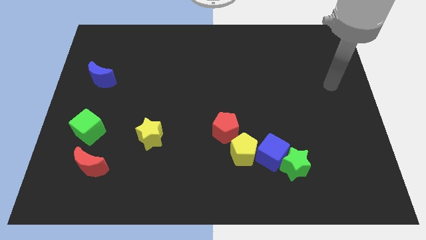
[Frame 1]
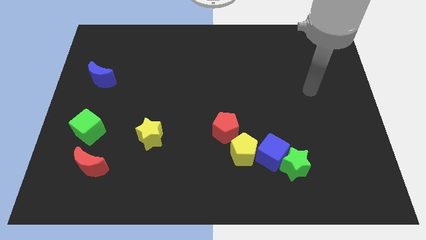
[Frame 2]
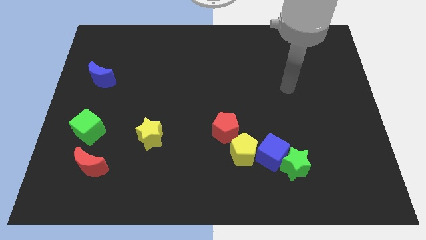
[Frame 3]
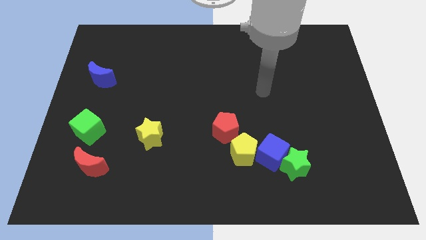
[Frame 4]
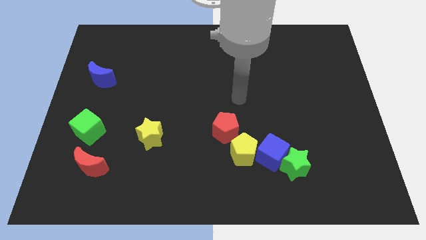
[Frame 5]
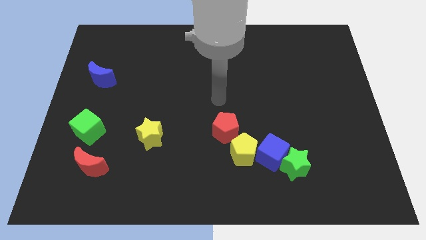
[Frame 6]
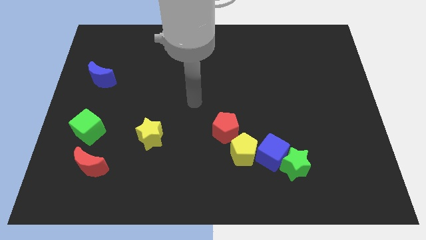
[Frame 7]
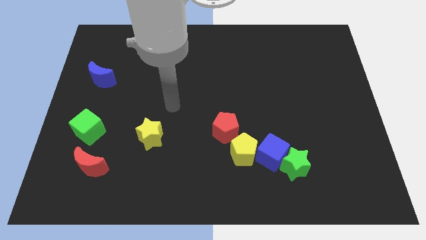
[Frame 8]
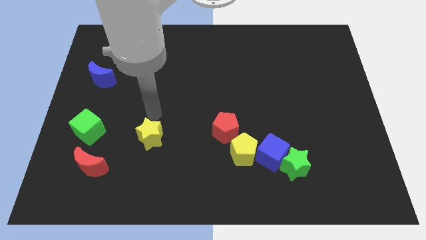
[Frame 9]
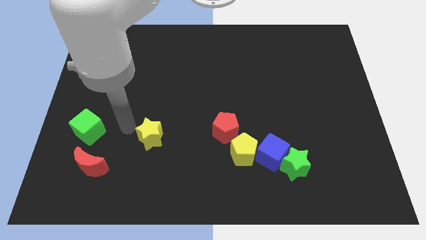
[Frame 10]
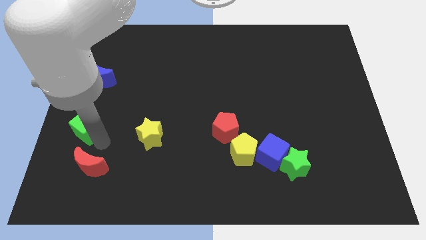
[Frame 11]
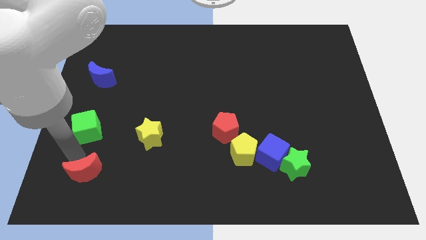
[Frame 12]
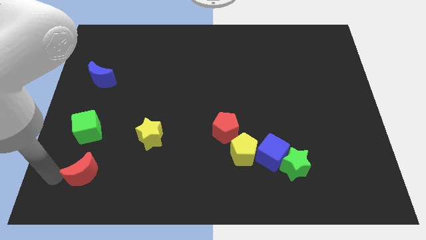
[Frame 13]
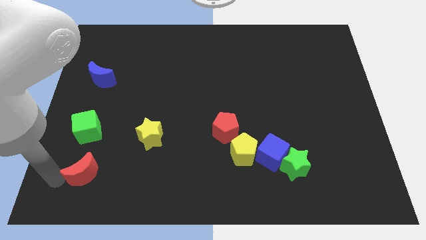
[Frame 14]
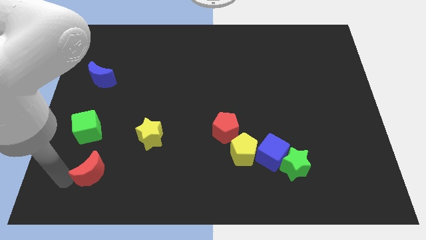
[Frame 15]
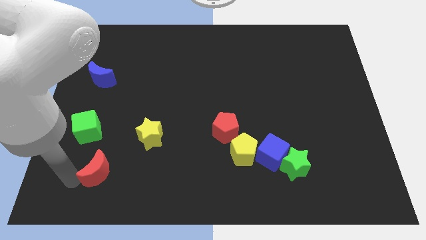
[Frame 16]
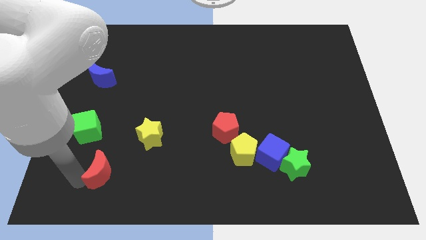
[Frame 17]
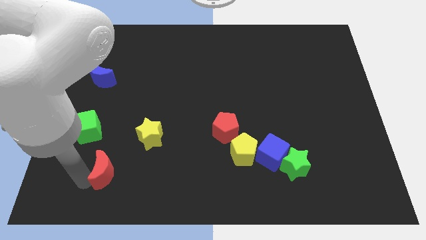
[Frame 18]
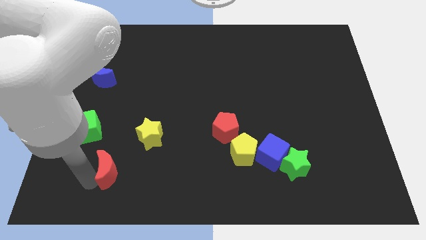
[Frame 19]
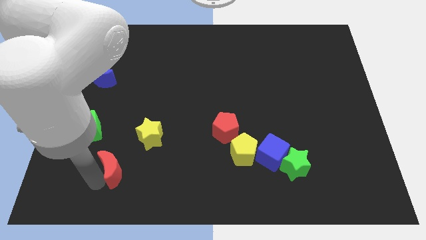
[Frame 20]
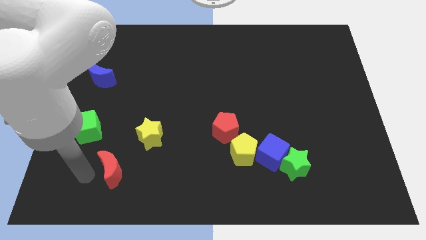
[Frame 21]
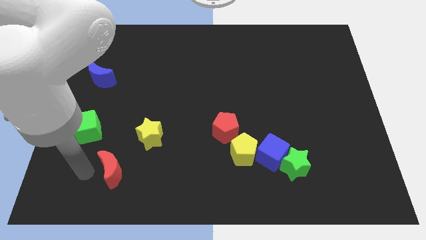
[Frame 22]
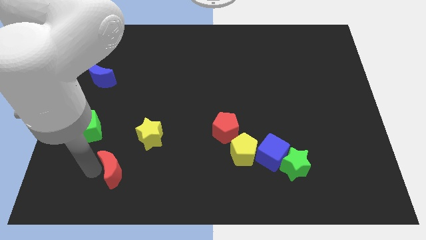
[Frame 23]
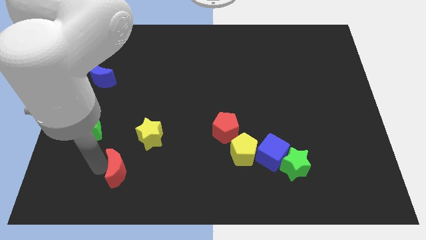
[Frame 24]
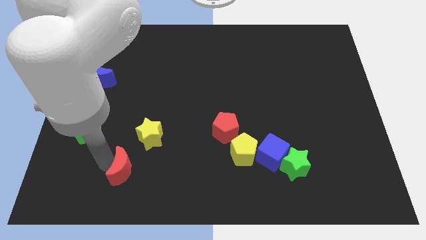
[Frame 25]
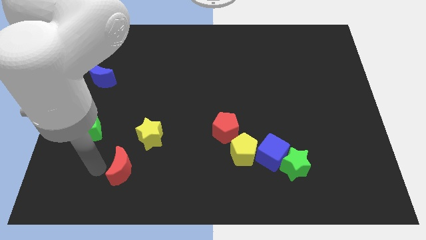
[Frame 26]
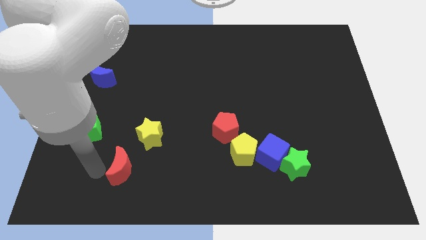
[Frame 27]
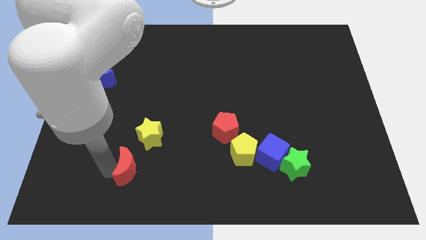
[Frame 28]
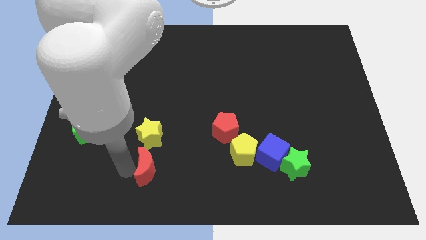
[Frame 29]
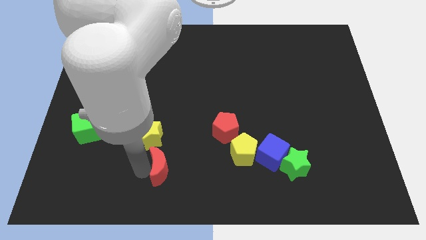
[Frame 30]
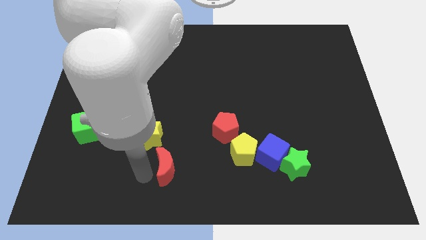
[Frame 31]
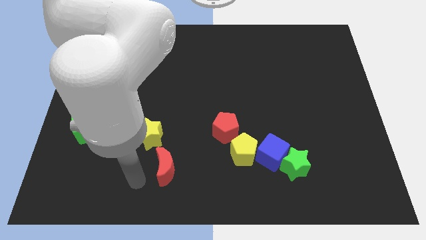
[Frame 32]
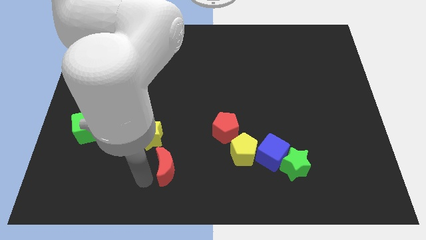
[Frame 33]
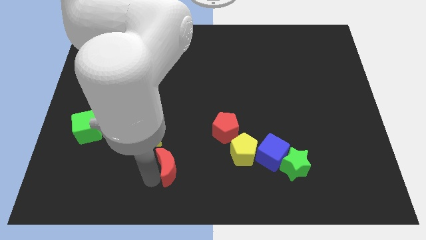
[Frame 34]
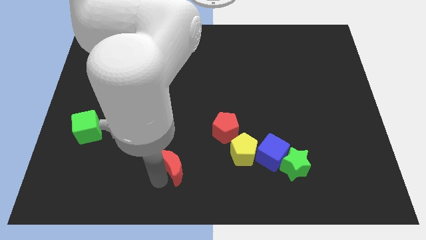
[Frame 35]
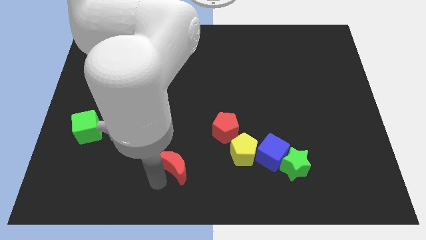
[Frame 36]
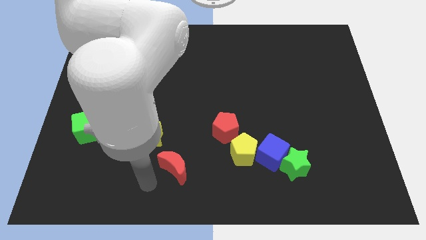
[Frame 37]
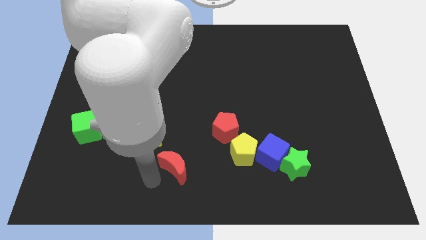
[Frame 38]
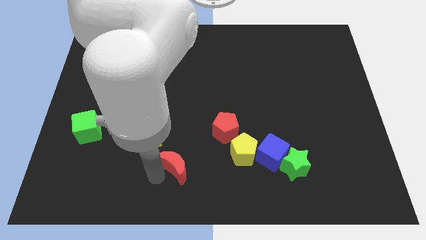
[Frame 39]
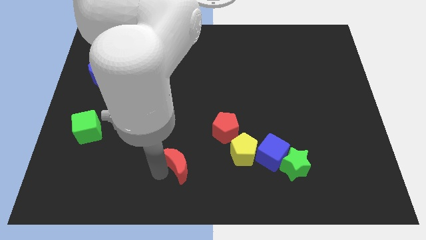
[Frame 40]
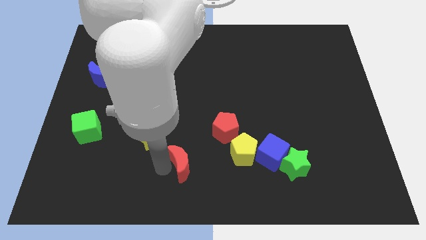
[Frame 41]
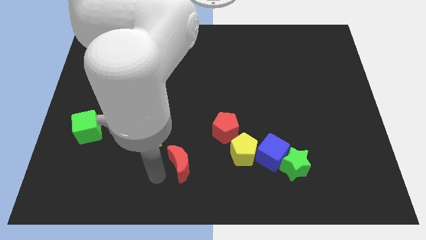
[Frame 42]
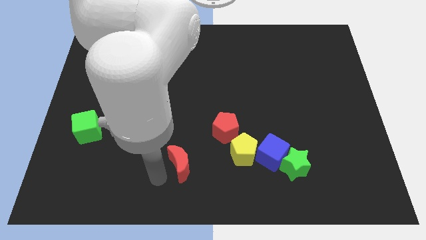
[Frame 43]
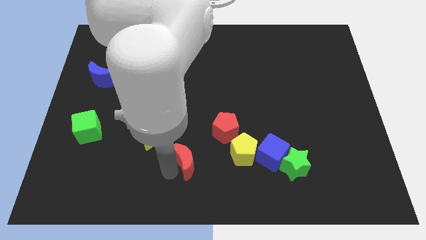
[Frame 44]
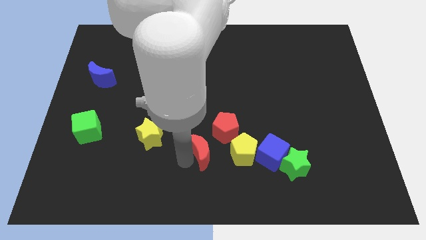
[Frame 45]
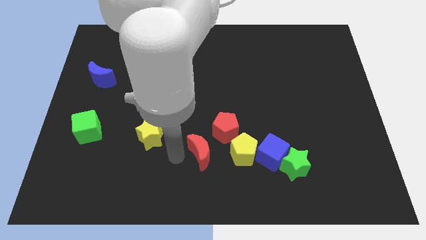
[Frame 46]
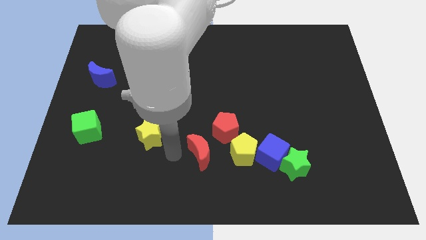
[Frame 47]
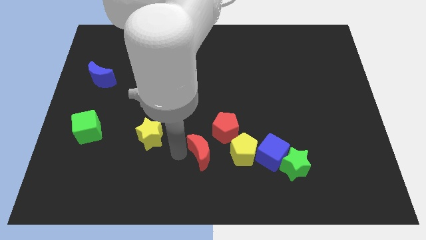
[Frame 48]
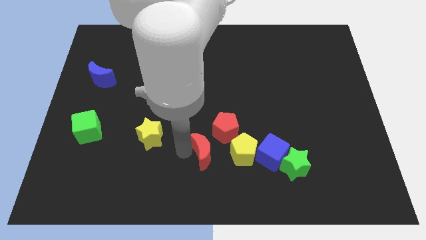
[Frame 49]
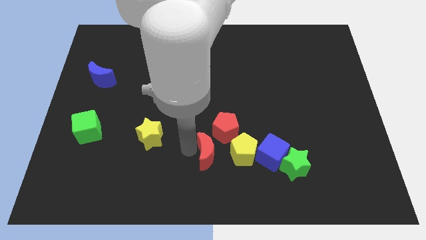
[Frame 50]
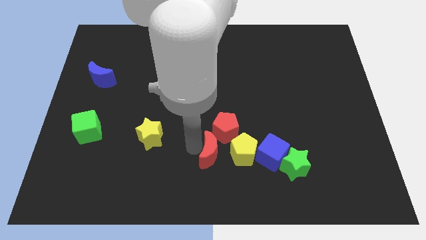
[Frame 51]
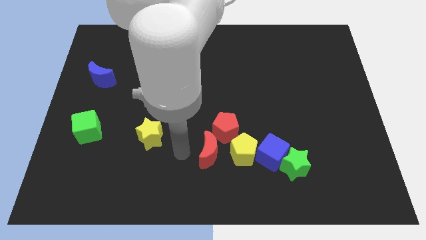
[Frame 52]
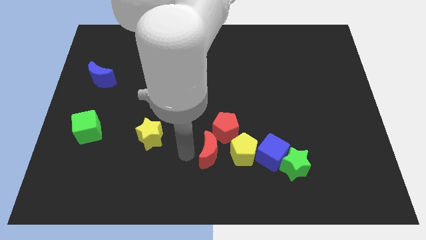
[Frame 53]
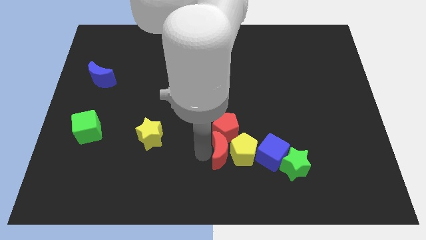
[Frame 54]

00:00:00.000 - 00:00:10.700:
put the red moon close to the yellow pentagon

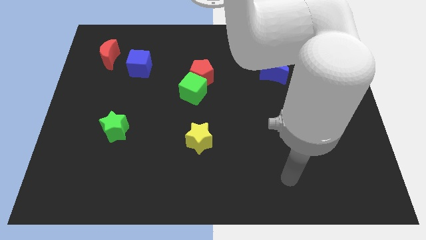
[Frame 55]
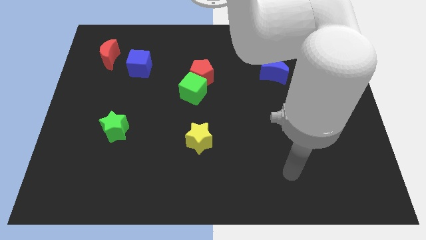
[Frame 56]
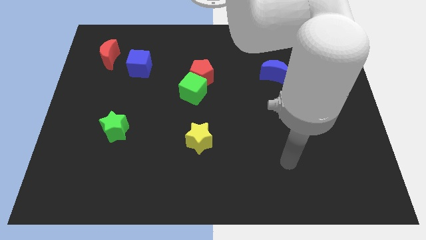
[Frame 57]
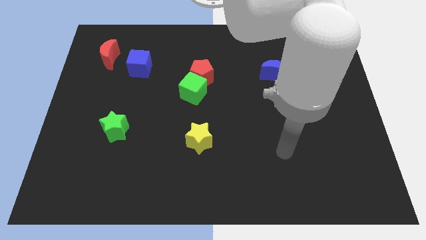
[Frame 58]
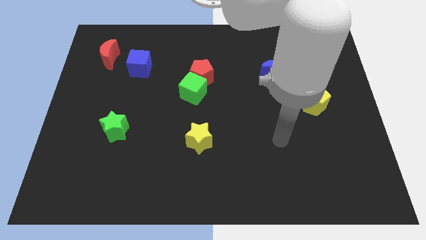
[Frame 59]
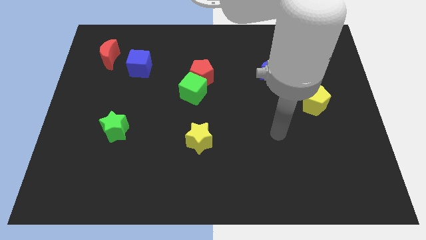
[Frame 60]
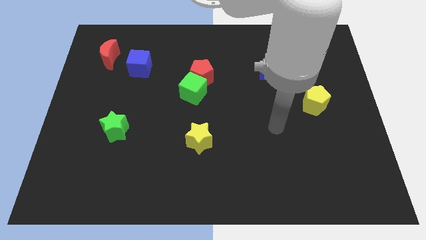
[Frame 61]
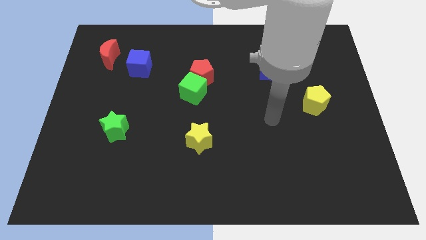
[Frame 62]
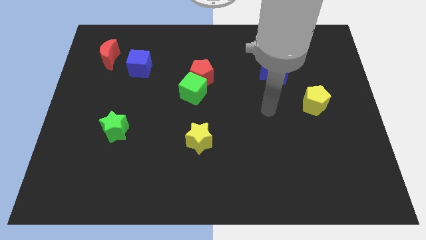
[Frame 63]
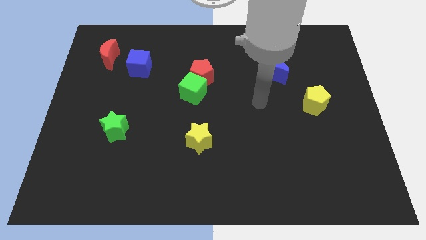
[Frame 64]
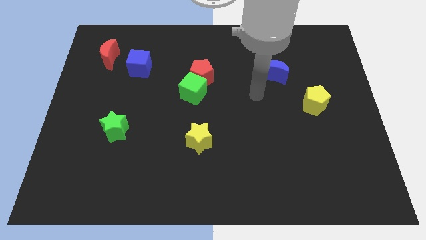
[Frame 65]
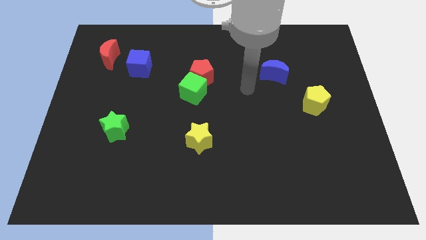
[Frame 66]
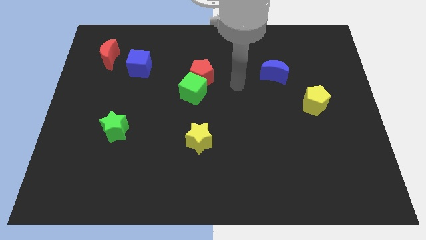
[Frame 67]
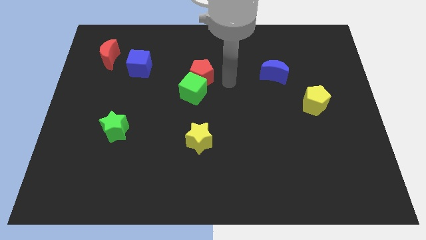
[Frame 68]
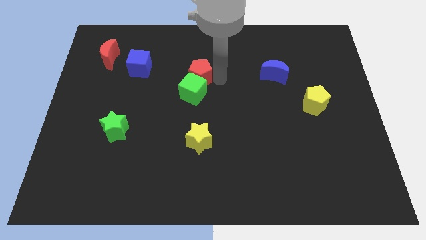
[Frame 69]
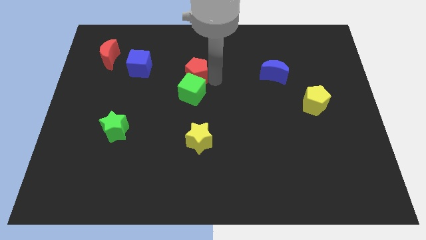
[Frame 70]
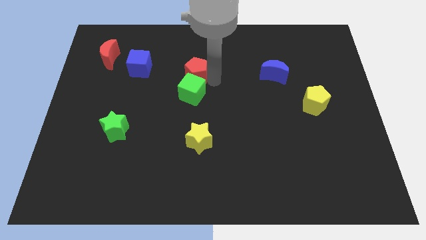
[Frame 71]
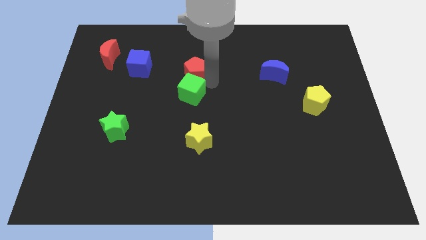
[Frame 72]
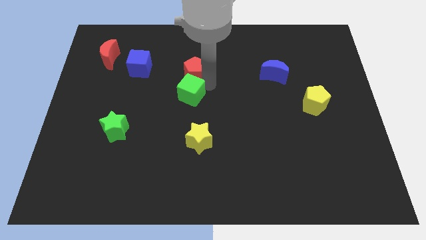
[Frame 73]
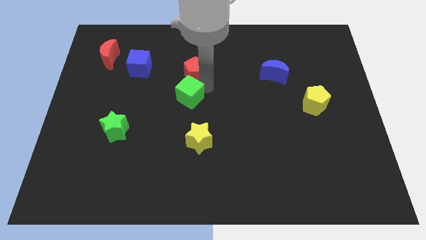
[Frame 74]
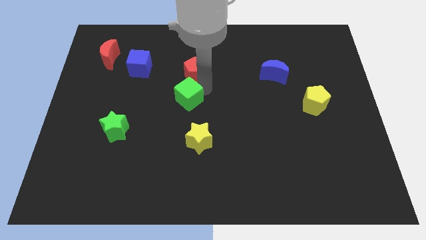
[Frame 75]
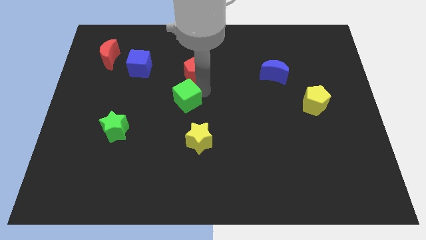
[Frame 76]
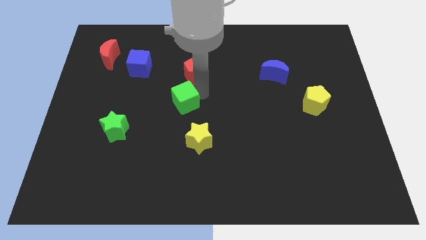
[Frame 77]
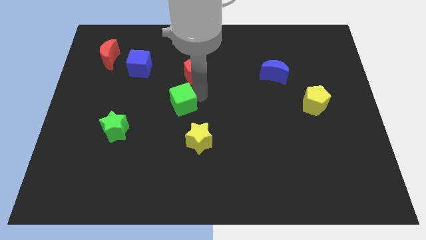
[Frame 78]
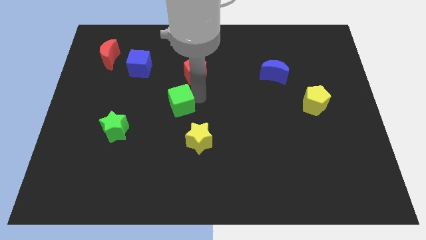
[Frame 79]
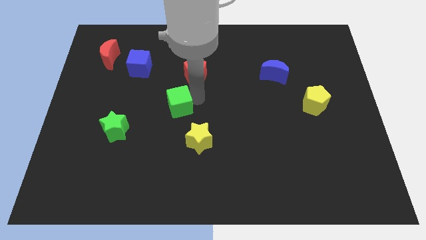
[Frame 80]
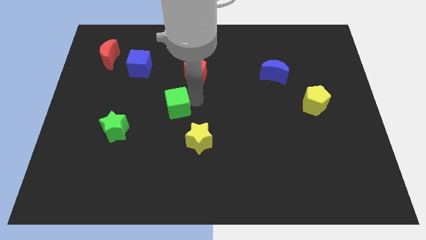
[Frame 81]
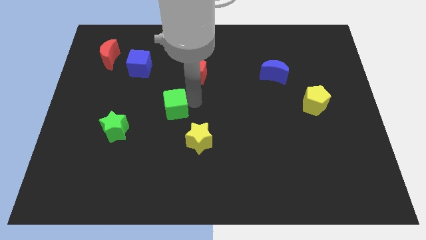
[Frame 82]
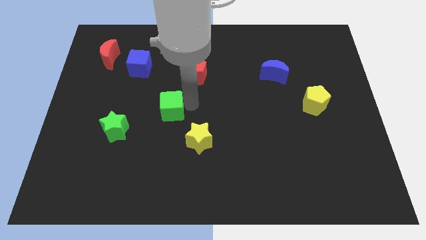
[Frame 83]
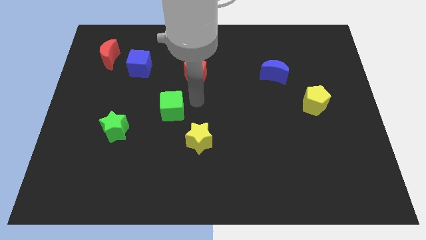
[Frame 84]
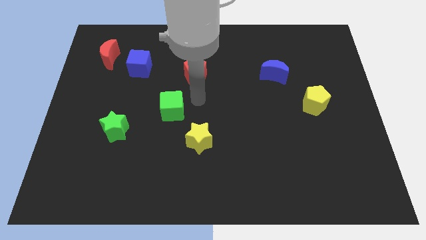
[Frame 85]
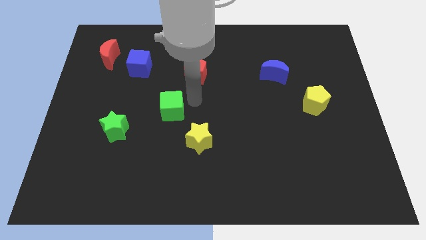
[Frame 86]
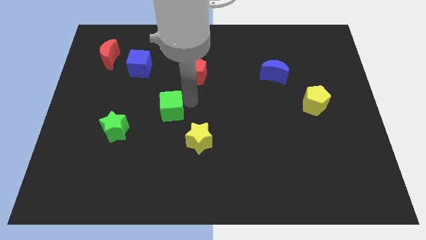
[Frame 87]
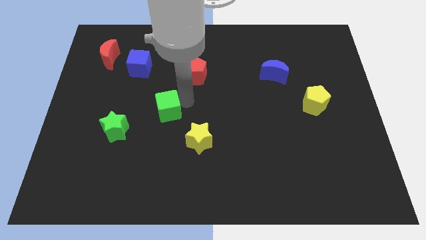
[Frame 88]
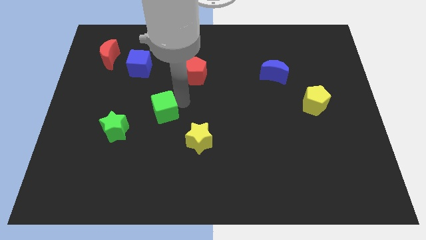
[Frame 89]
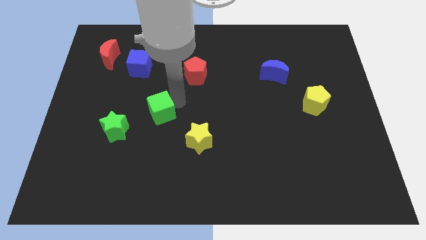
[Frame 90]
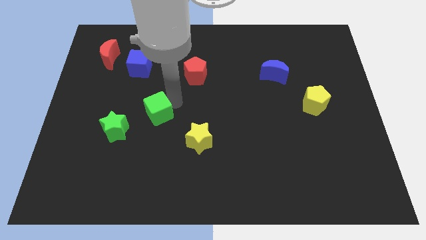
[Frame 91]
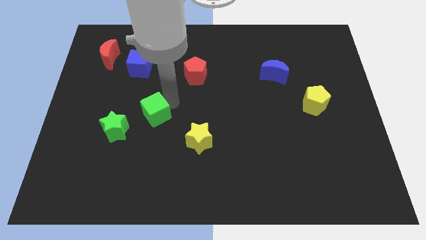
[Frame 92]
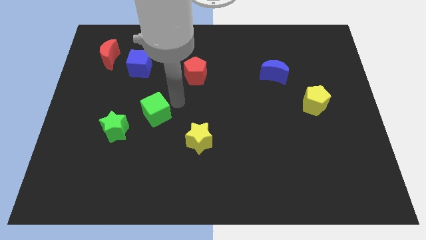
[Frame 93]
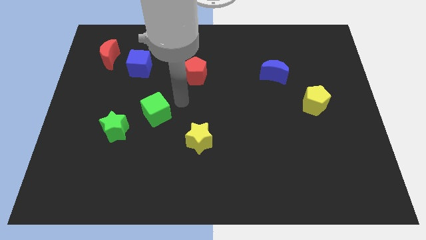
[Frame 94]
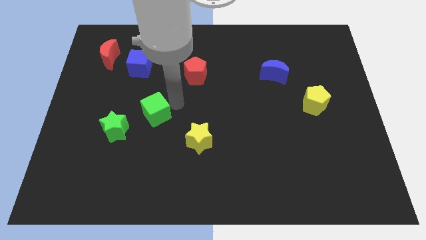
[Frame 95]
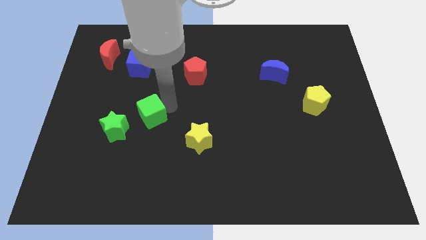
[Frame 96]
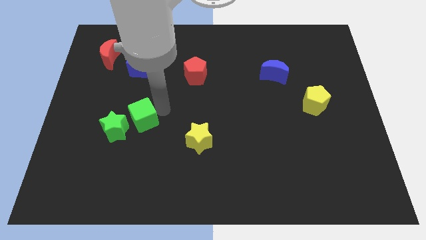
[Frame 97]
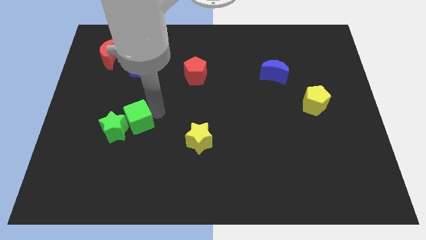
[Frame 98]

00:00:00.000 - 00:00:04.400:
put the green cube towards the green star
